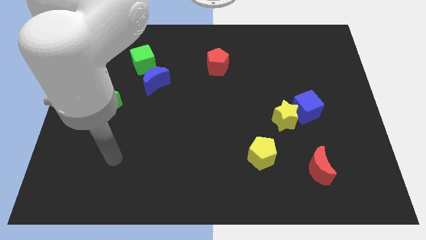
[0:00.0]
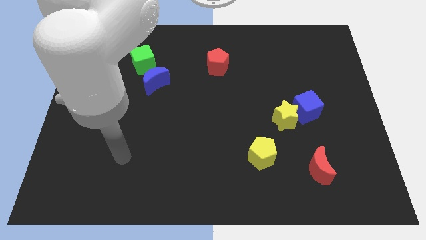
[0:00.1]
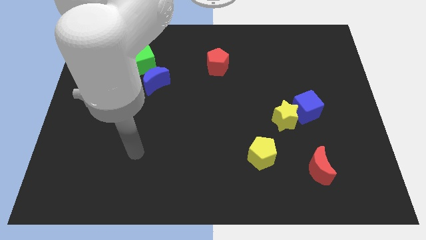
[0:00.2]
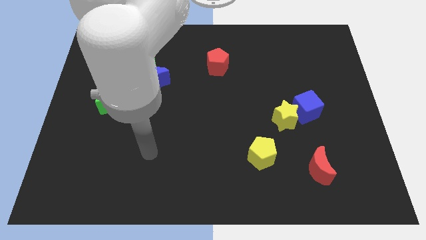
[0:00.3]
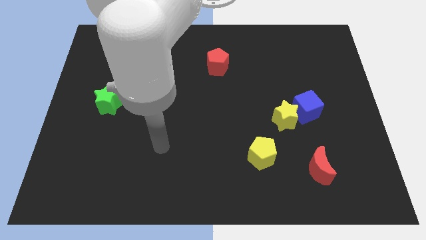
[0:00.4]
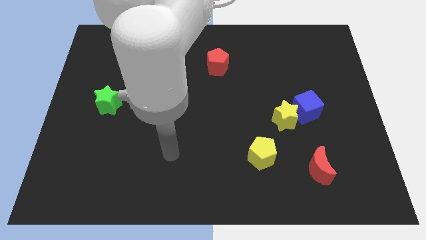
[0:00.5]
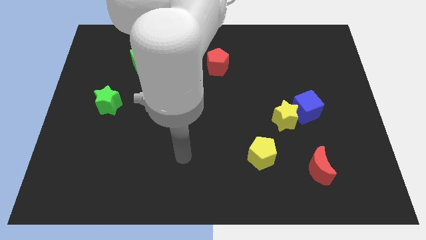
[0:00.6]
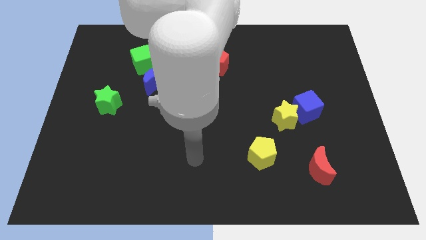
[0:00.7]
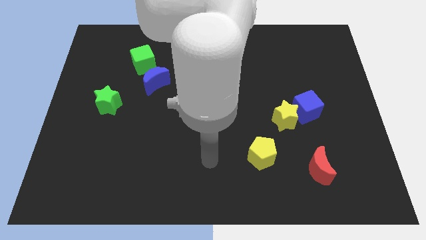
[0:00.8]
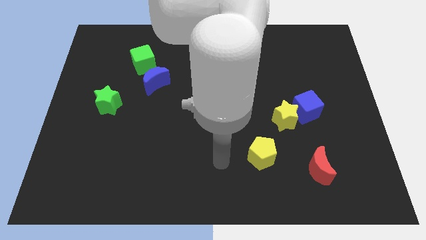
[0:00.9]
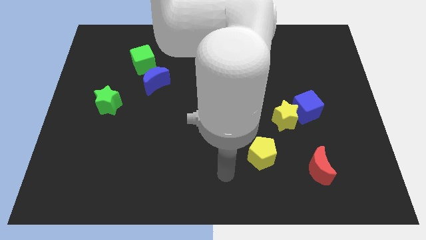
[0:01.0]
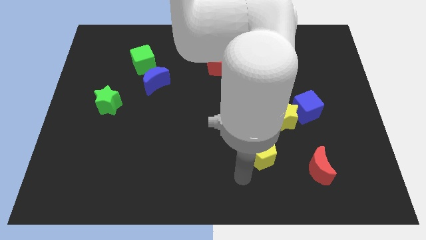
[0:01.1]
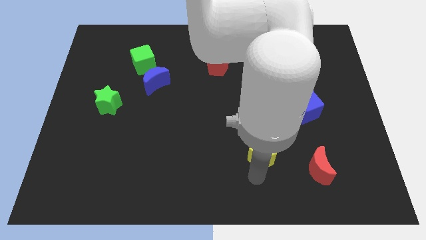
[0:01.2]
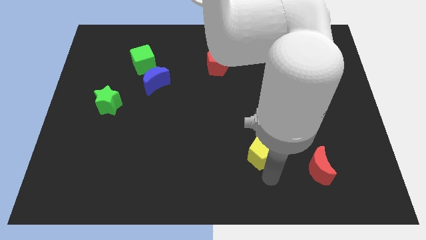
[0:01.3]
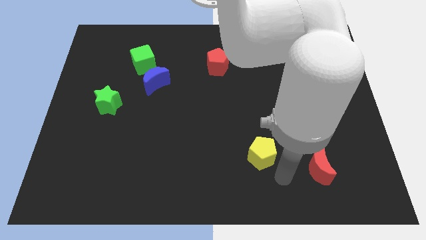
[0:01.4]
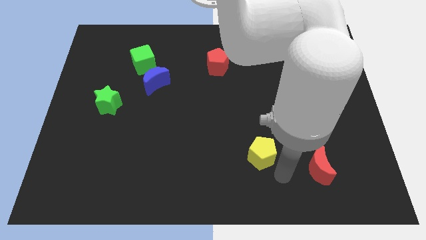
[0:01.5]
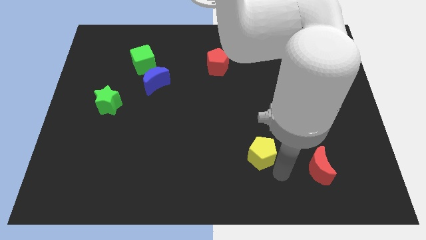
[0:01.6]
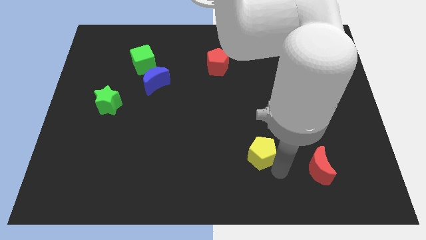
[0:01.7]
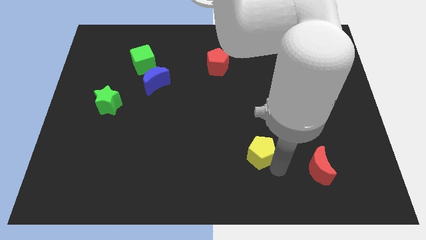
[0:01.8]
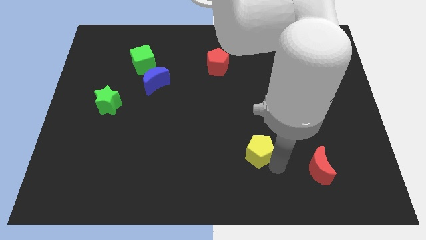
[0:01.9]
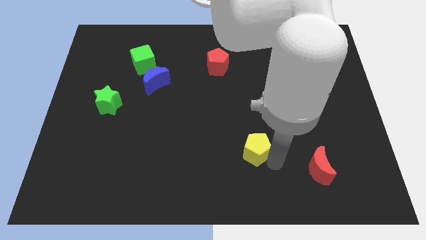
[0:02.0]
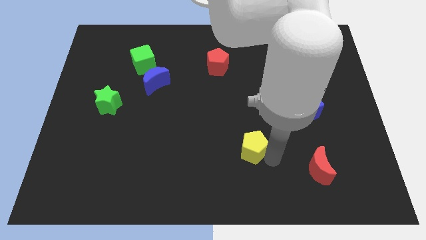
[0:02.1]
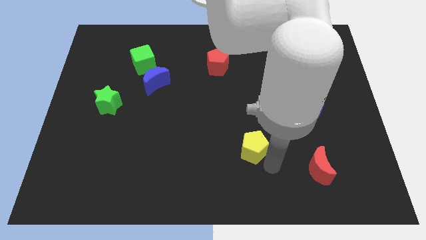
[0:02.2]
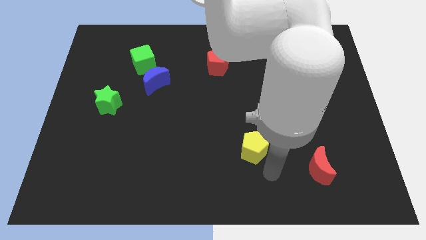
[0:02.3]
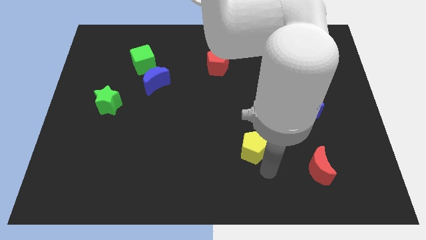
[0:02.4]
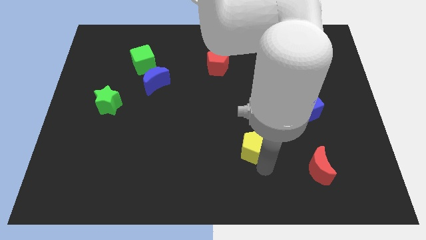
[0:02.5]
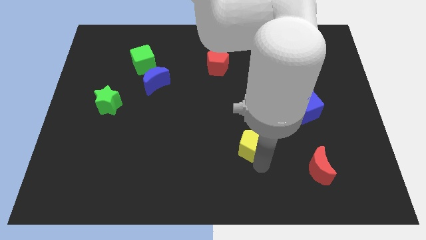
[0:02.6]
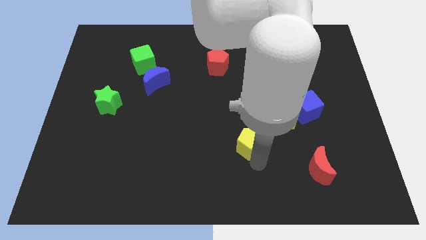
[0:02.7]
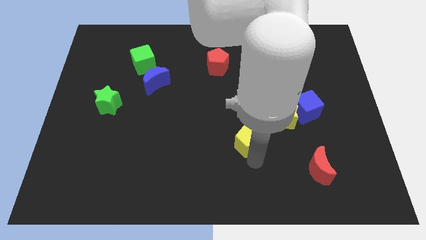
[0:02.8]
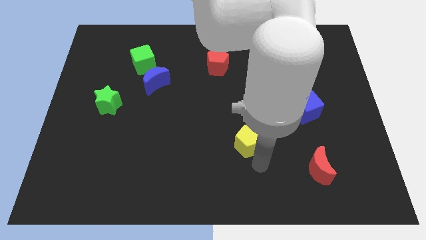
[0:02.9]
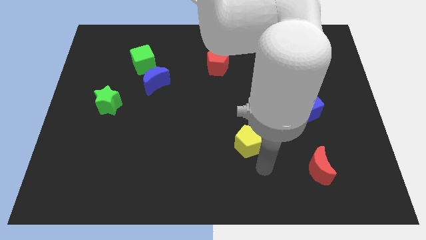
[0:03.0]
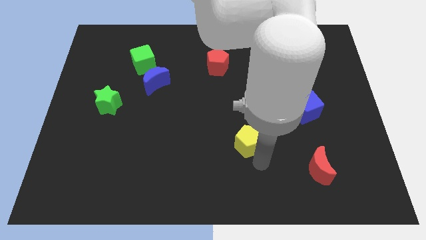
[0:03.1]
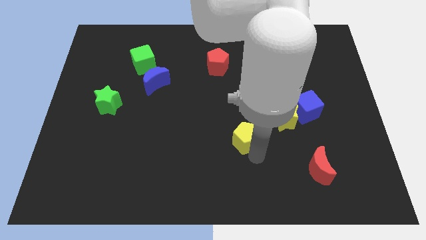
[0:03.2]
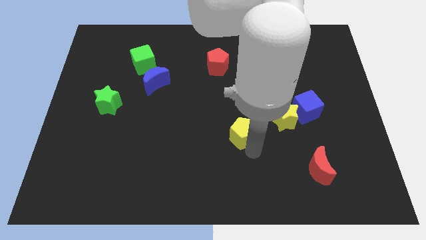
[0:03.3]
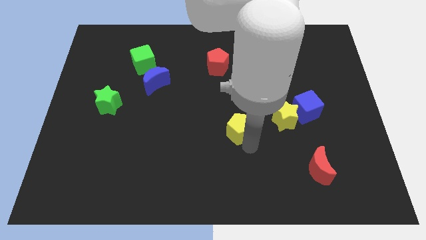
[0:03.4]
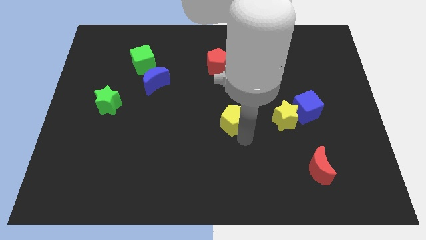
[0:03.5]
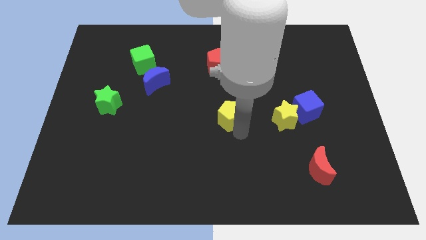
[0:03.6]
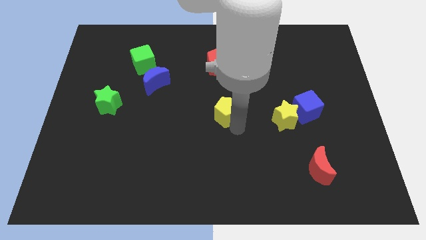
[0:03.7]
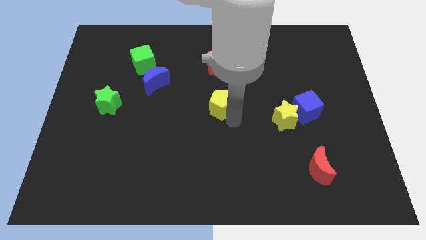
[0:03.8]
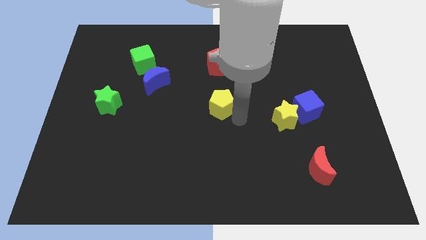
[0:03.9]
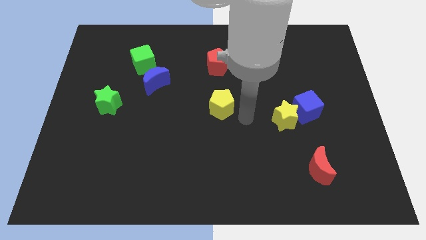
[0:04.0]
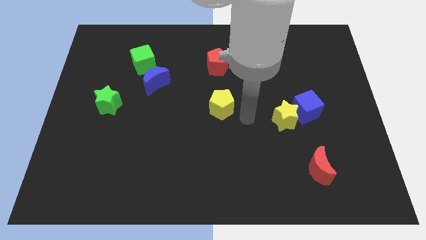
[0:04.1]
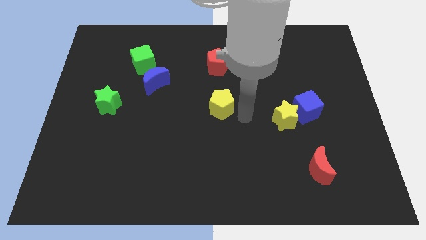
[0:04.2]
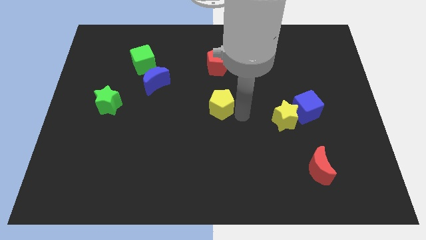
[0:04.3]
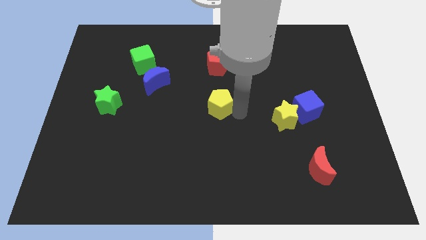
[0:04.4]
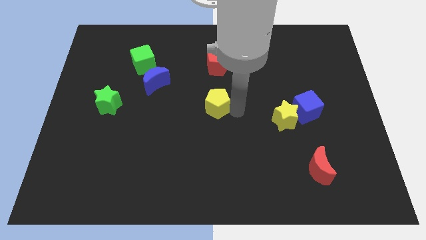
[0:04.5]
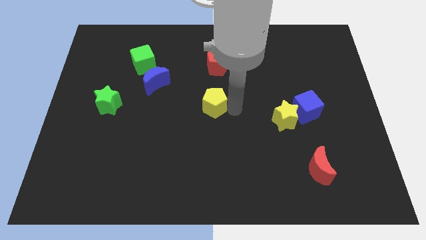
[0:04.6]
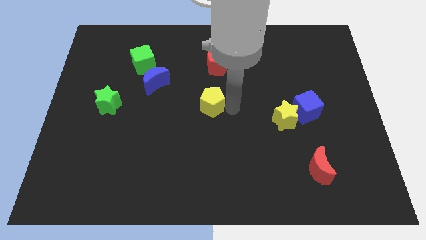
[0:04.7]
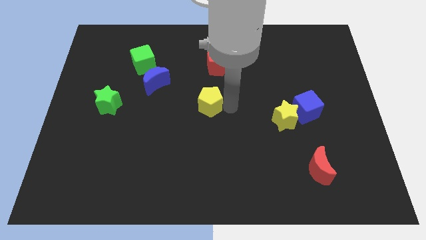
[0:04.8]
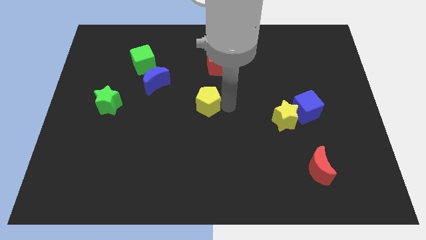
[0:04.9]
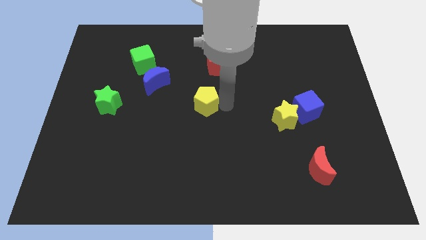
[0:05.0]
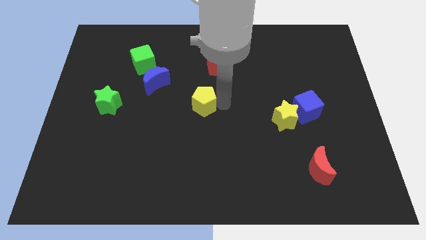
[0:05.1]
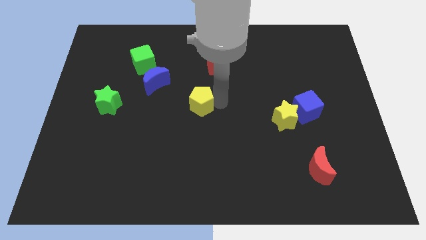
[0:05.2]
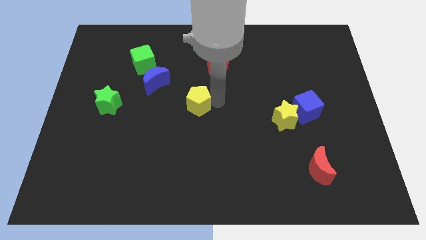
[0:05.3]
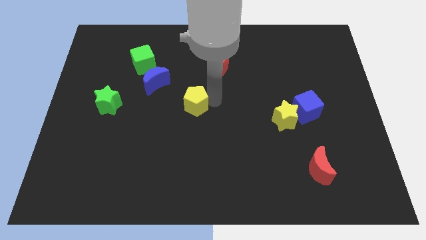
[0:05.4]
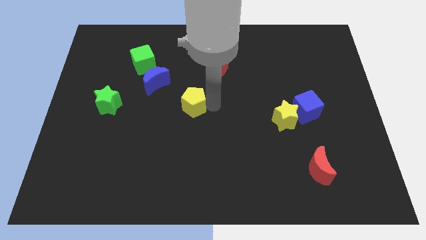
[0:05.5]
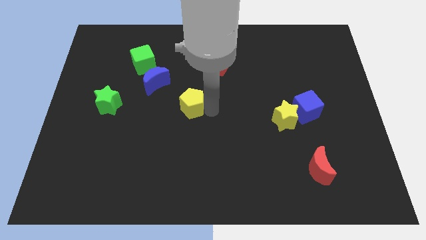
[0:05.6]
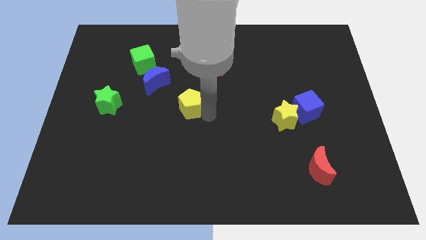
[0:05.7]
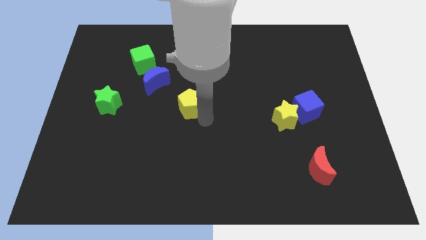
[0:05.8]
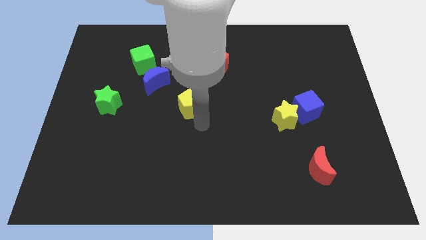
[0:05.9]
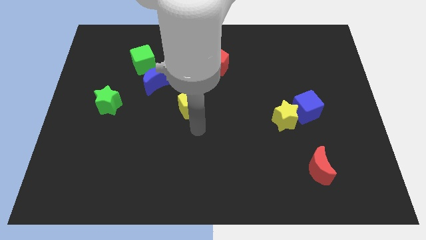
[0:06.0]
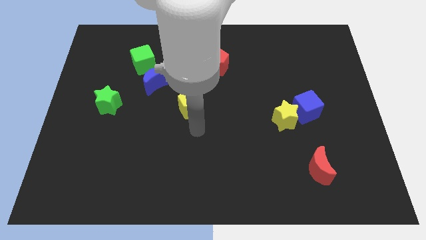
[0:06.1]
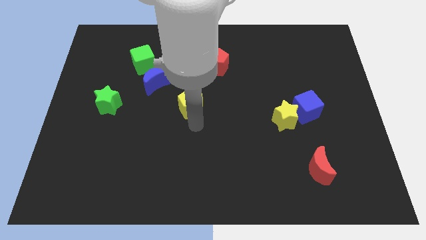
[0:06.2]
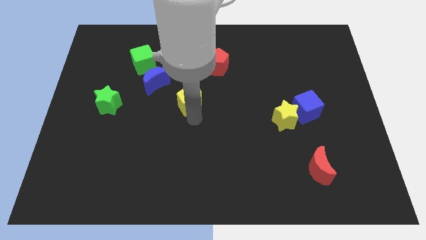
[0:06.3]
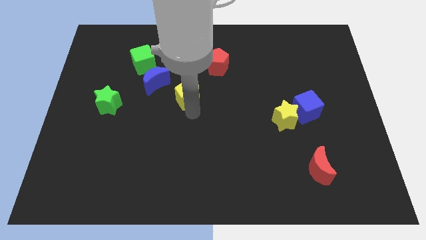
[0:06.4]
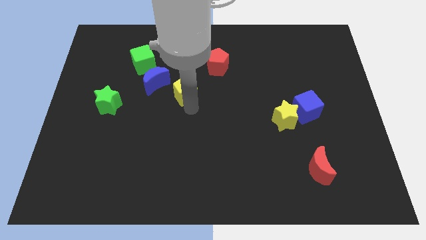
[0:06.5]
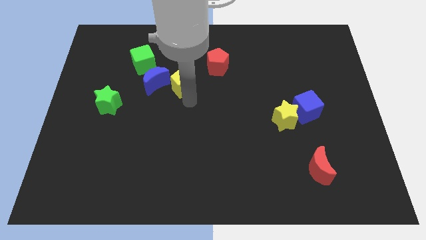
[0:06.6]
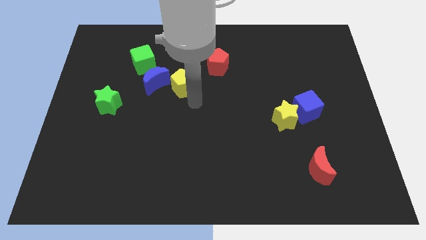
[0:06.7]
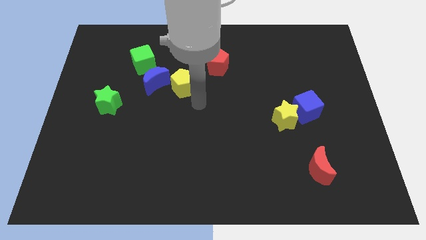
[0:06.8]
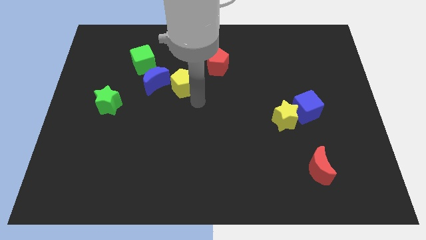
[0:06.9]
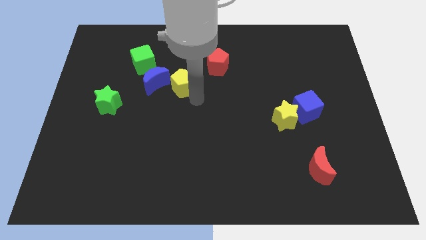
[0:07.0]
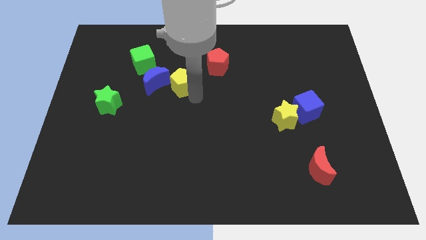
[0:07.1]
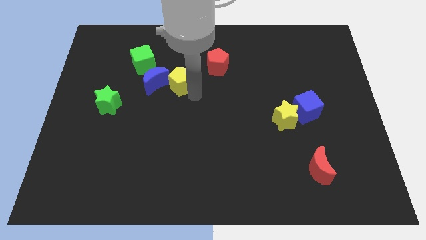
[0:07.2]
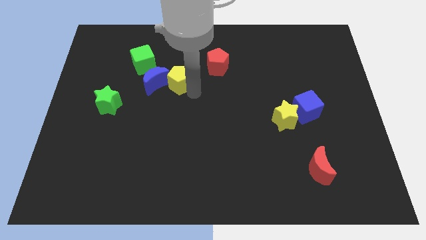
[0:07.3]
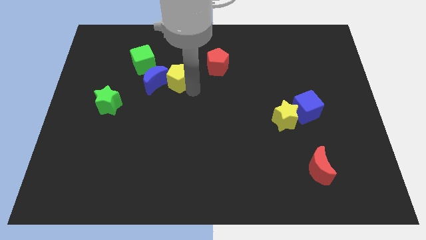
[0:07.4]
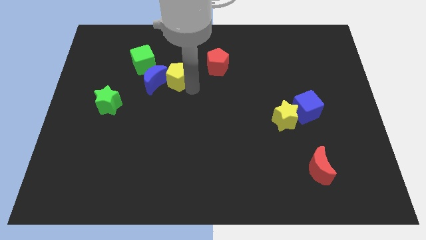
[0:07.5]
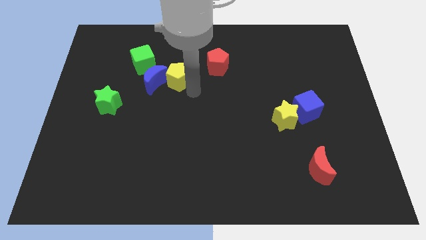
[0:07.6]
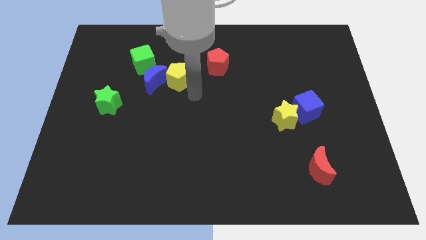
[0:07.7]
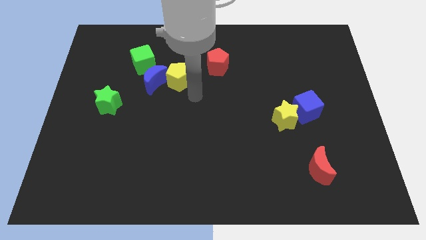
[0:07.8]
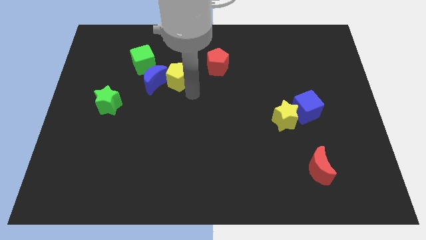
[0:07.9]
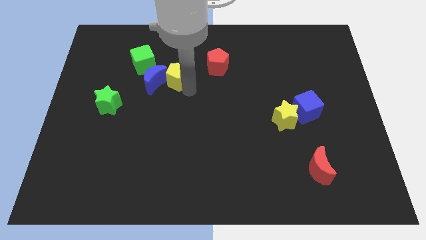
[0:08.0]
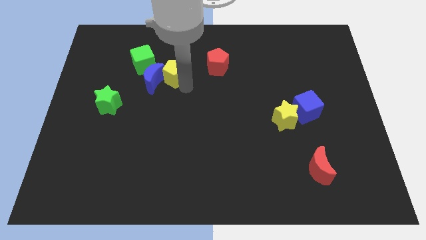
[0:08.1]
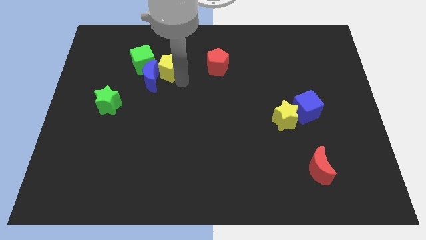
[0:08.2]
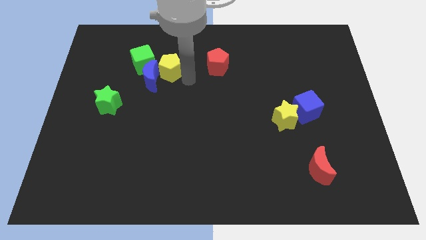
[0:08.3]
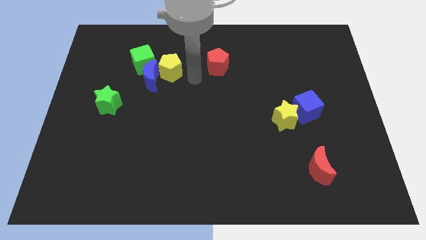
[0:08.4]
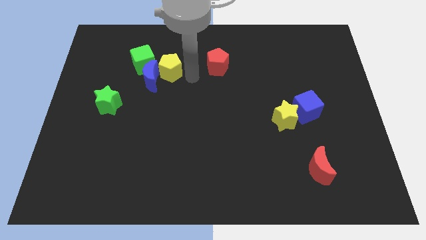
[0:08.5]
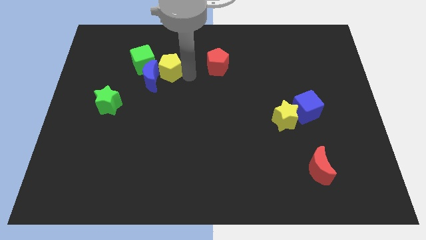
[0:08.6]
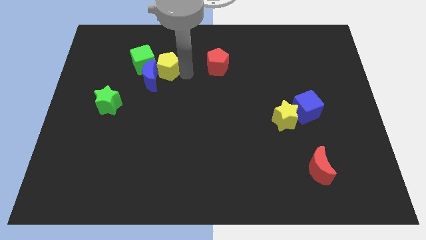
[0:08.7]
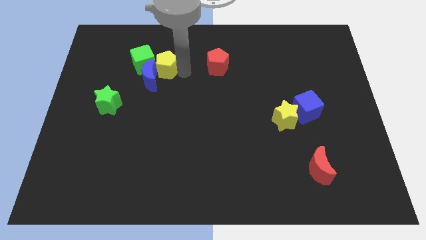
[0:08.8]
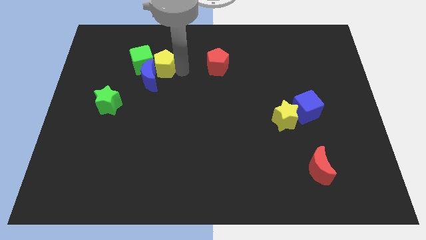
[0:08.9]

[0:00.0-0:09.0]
put the yellow pentagon next to the green cube
